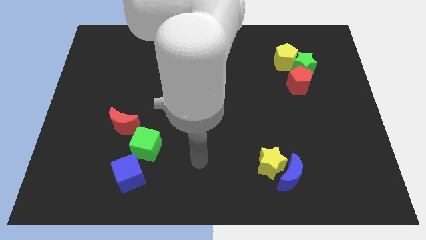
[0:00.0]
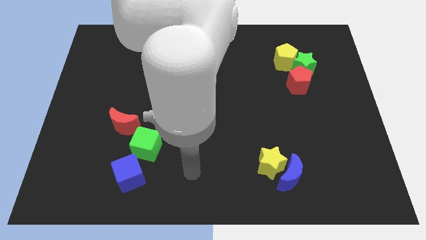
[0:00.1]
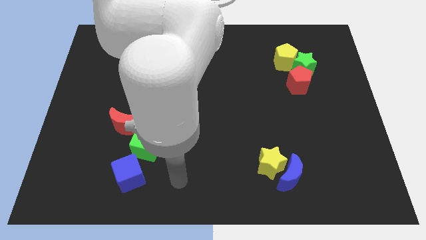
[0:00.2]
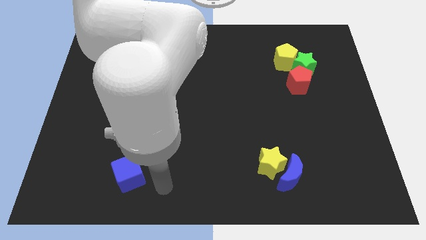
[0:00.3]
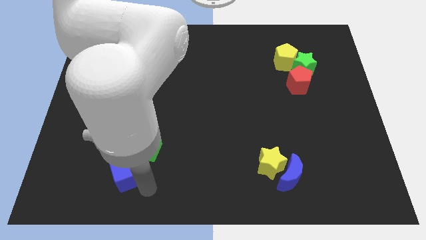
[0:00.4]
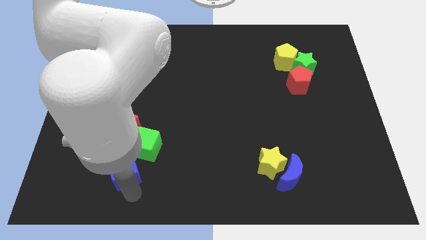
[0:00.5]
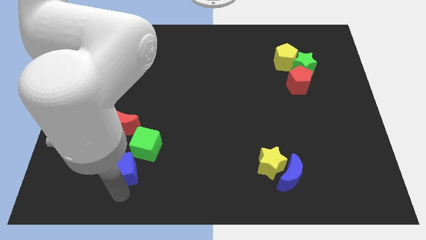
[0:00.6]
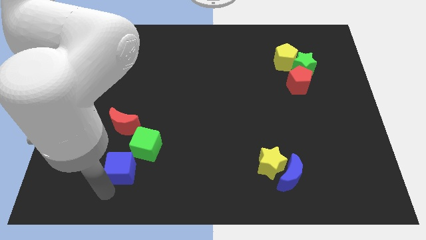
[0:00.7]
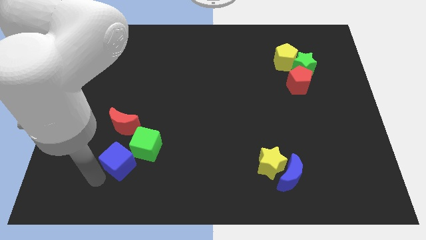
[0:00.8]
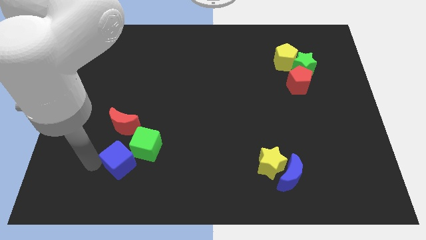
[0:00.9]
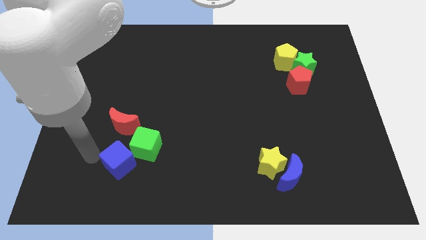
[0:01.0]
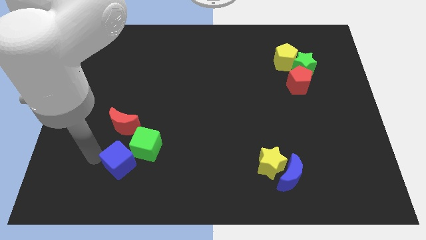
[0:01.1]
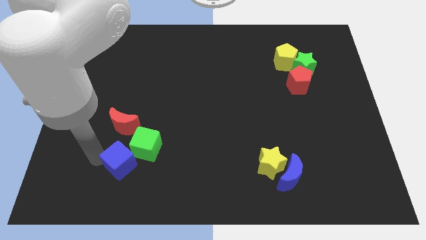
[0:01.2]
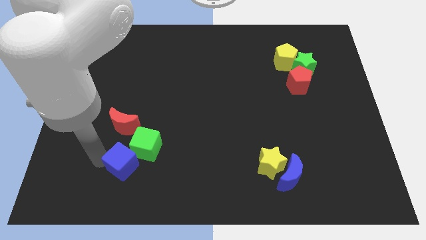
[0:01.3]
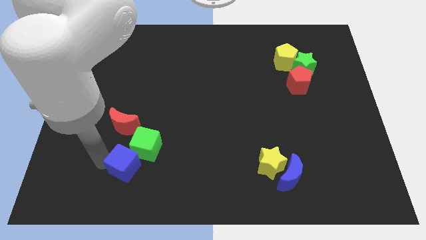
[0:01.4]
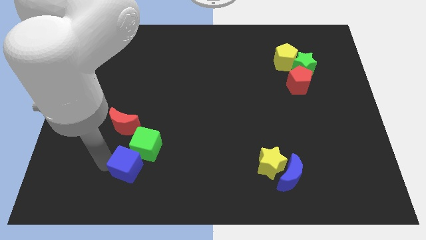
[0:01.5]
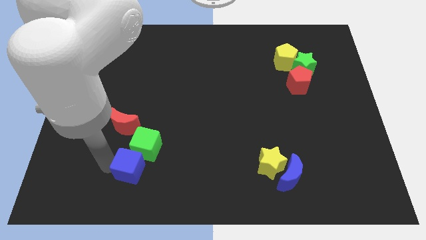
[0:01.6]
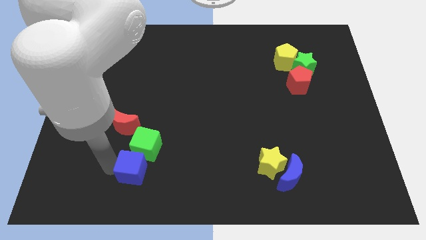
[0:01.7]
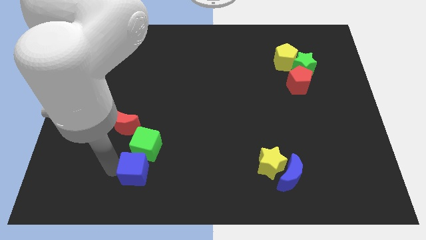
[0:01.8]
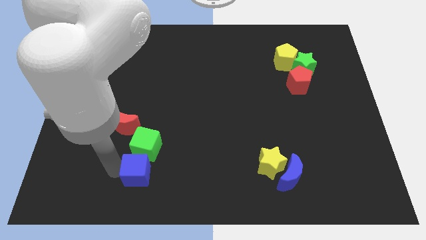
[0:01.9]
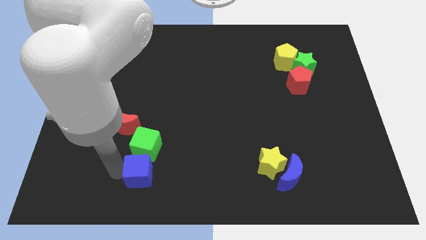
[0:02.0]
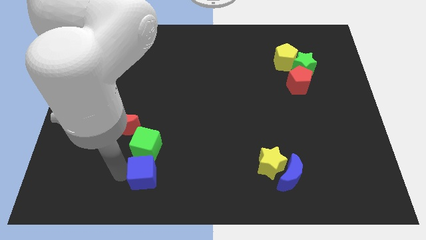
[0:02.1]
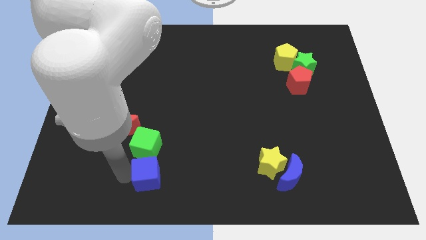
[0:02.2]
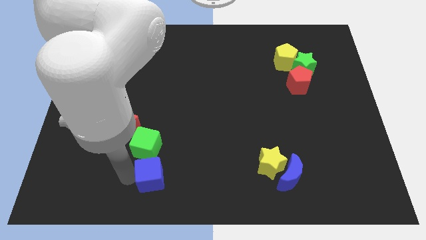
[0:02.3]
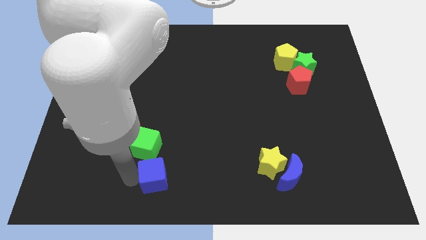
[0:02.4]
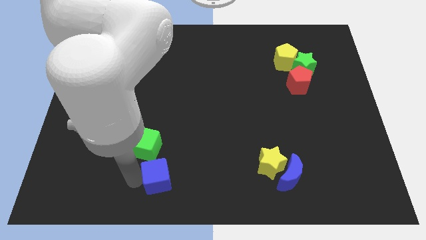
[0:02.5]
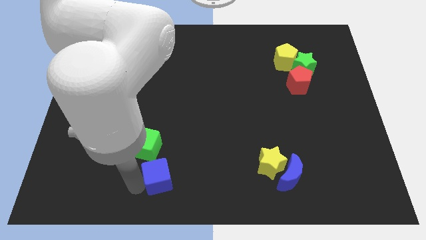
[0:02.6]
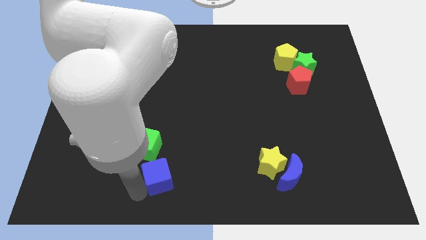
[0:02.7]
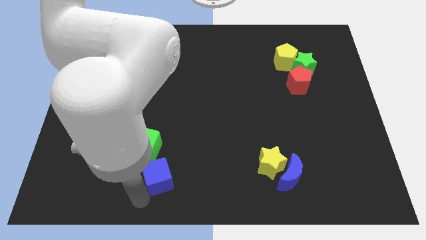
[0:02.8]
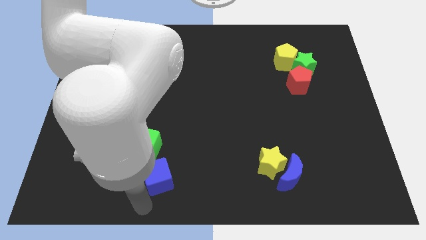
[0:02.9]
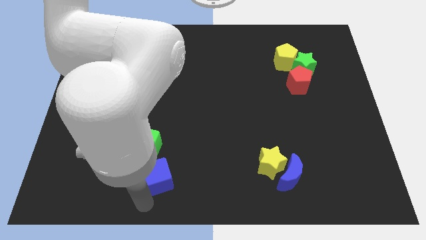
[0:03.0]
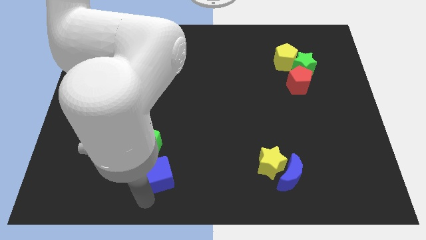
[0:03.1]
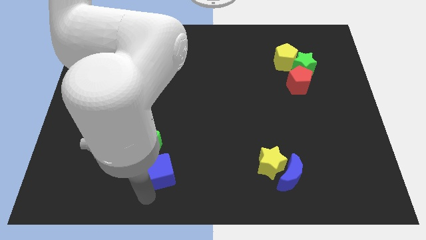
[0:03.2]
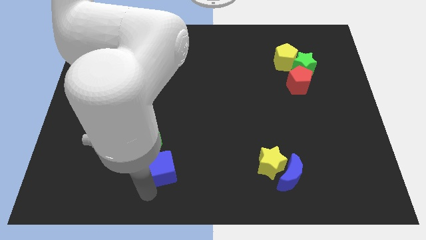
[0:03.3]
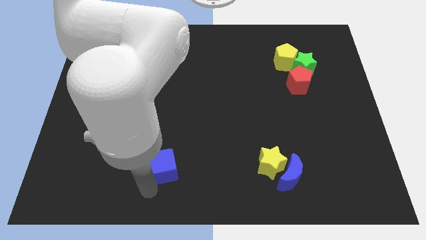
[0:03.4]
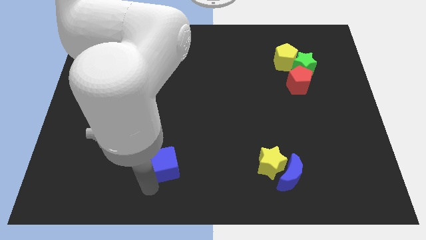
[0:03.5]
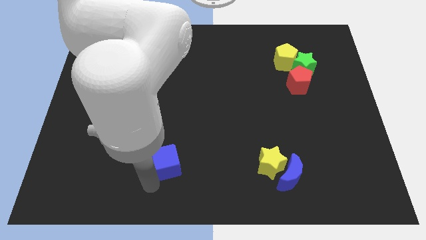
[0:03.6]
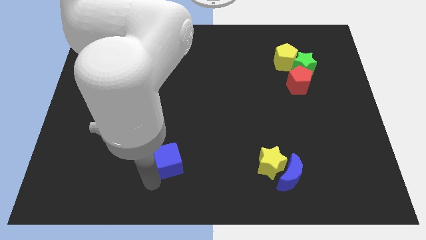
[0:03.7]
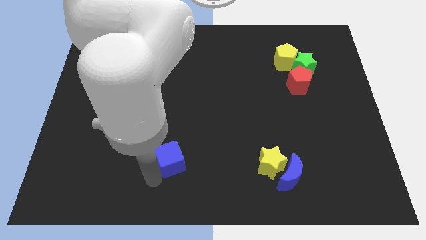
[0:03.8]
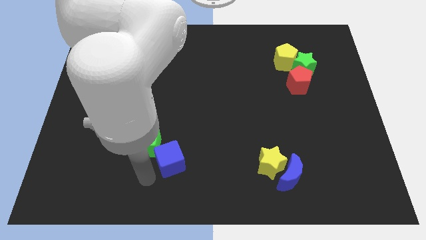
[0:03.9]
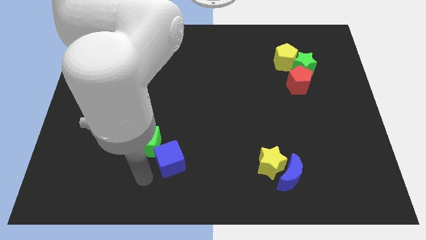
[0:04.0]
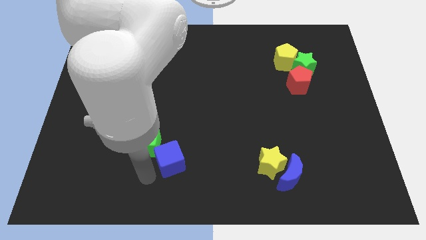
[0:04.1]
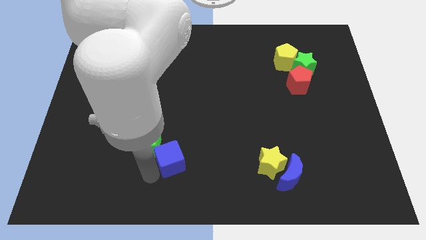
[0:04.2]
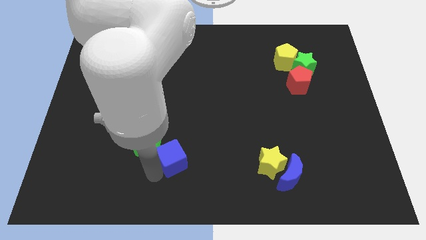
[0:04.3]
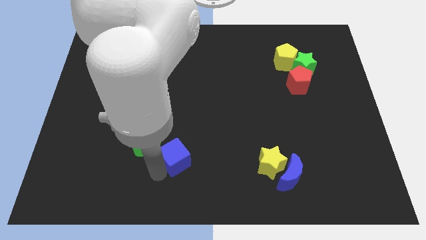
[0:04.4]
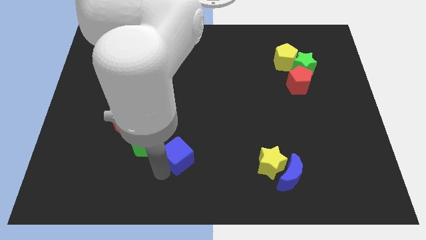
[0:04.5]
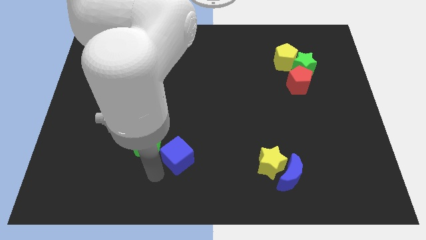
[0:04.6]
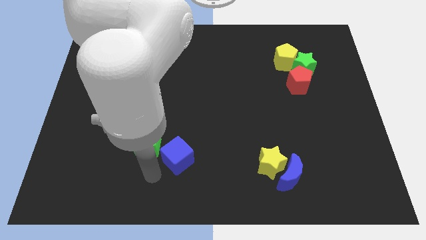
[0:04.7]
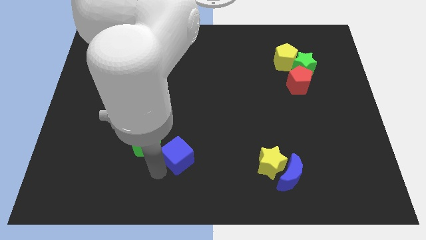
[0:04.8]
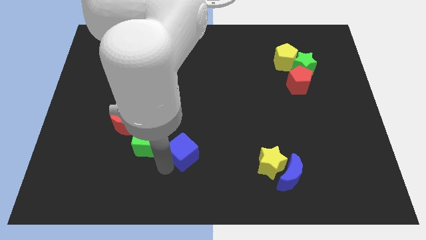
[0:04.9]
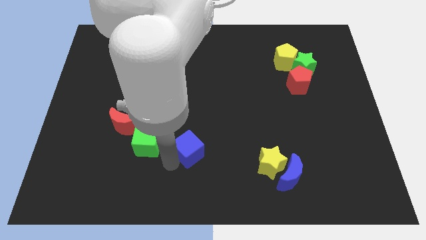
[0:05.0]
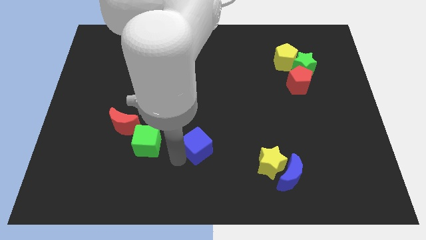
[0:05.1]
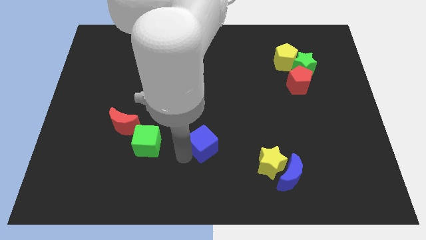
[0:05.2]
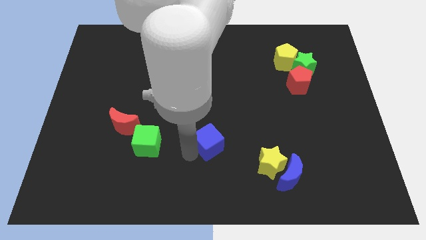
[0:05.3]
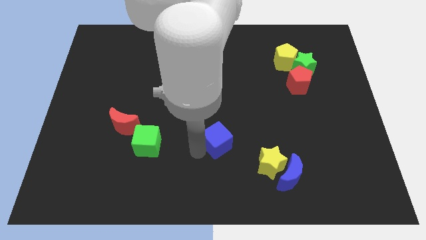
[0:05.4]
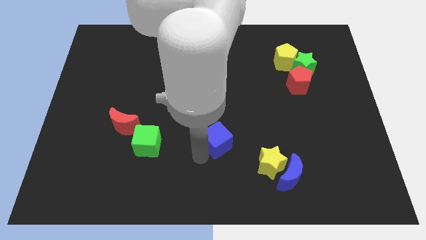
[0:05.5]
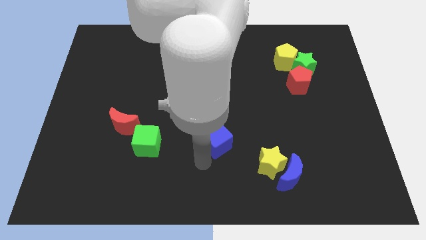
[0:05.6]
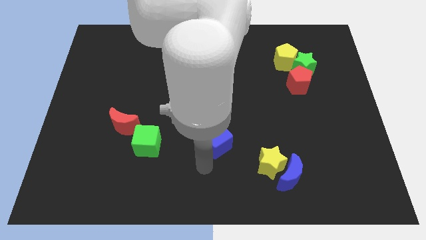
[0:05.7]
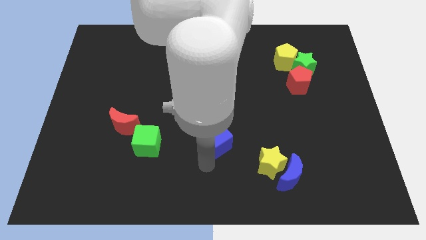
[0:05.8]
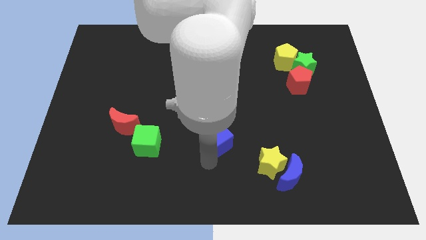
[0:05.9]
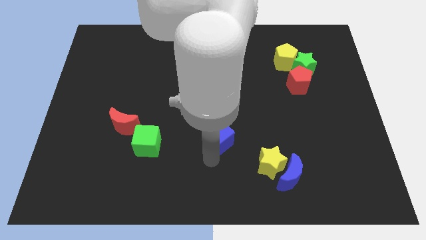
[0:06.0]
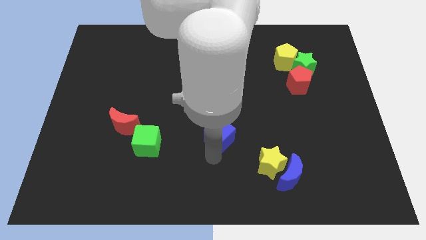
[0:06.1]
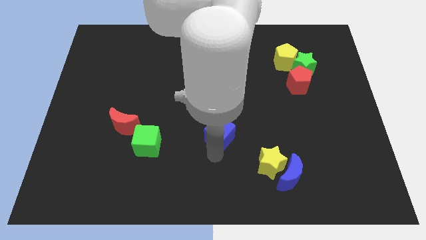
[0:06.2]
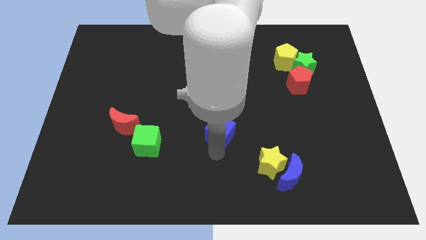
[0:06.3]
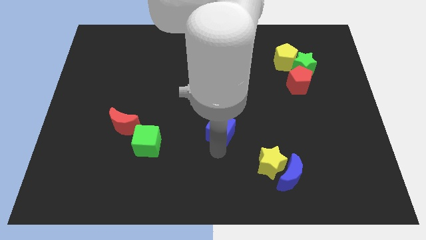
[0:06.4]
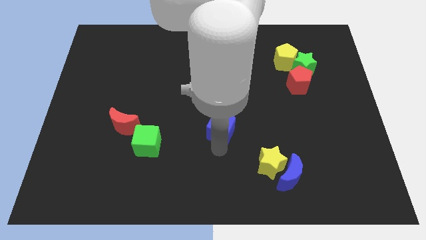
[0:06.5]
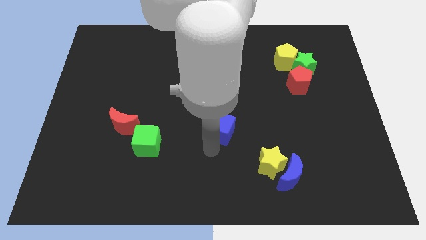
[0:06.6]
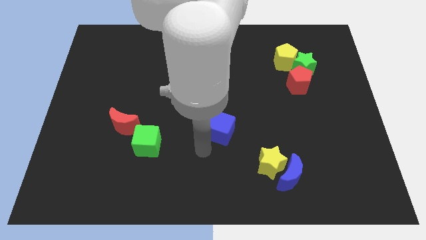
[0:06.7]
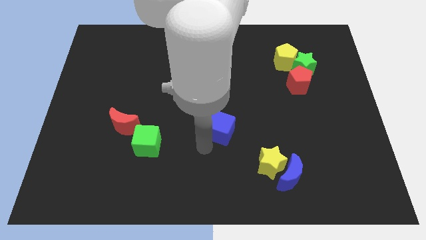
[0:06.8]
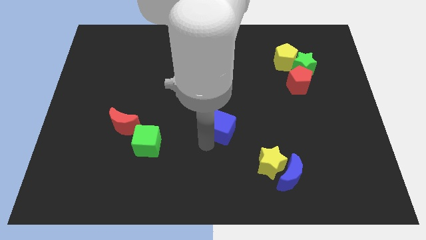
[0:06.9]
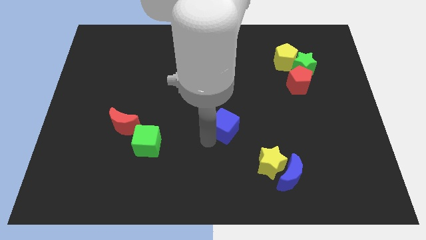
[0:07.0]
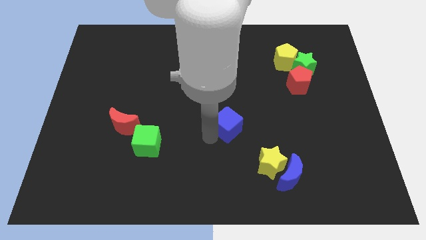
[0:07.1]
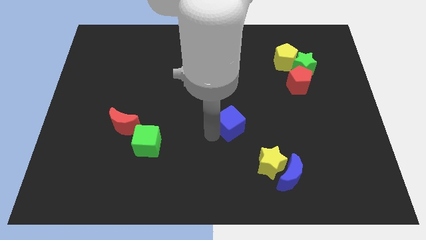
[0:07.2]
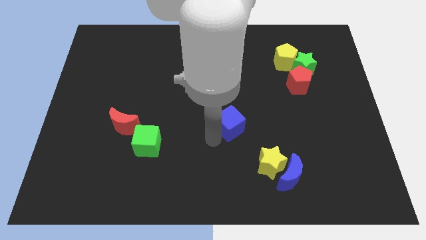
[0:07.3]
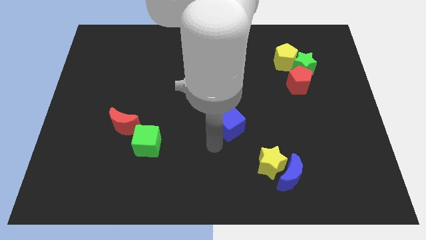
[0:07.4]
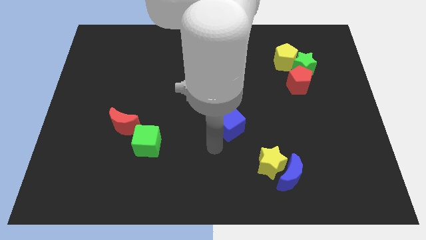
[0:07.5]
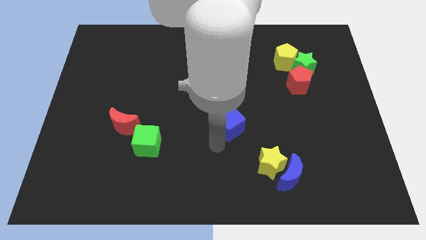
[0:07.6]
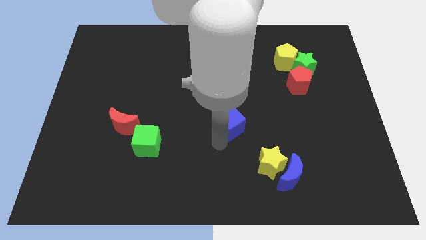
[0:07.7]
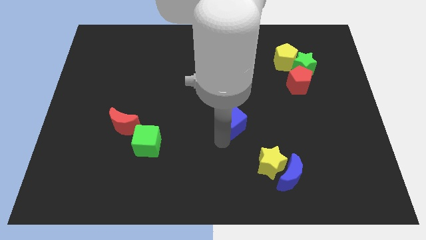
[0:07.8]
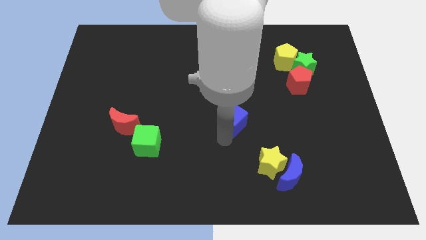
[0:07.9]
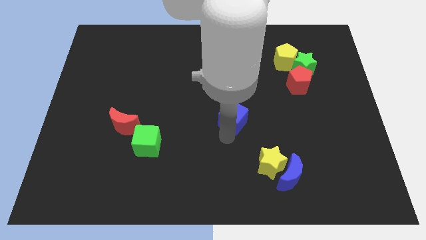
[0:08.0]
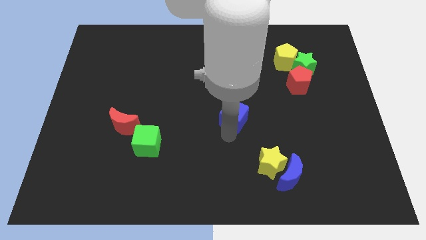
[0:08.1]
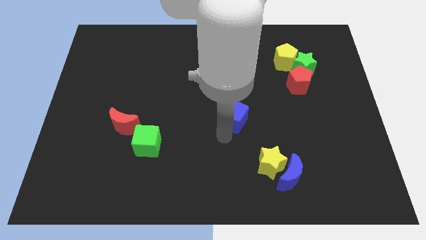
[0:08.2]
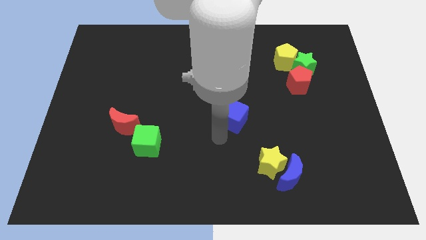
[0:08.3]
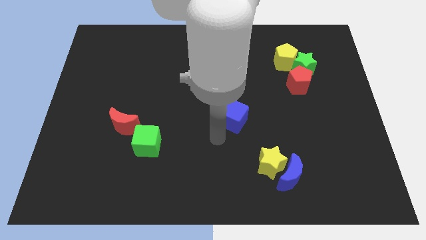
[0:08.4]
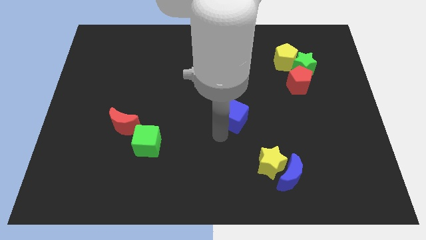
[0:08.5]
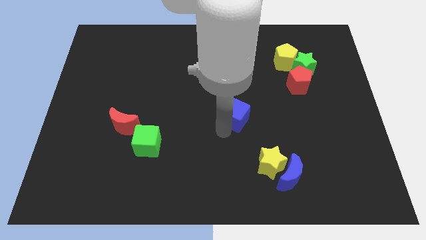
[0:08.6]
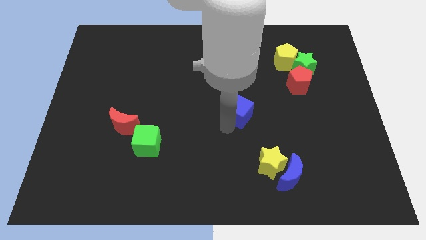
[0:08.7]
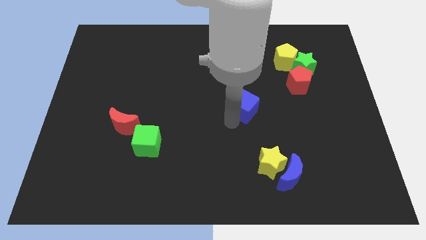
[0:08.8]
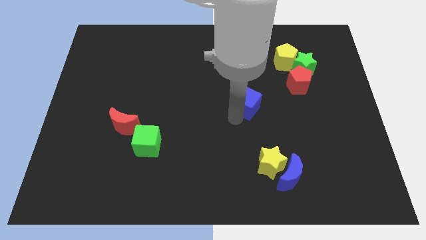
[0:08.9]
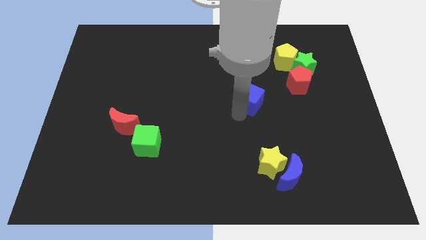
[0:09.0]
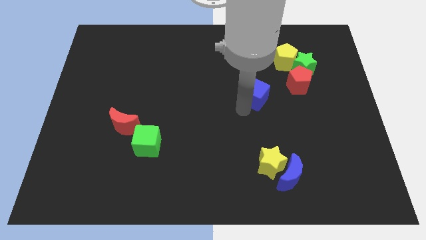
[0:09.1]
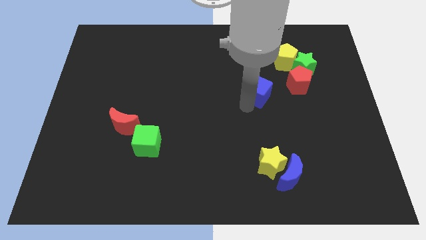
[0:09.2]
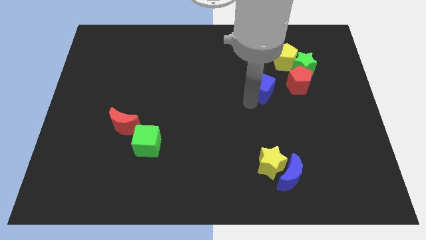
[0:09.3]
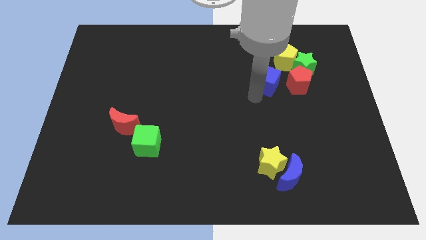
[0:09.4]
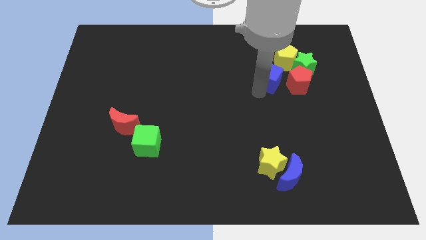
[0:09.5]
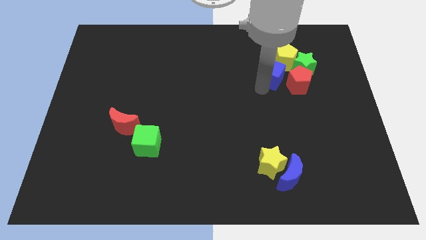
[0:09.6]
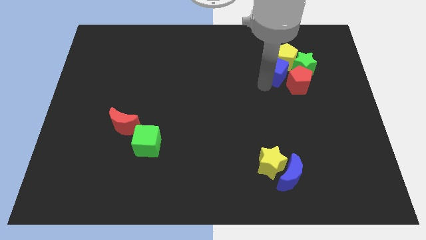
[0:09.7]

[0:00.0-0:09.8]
put the blue cube towards the yellow pentagon
